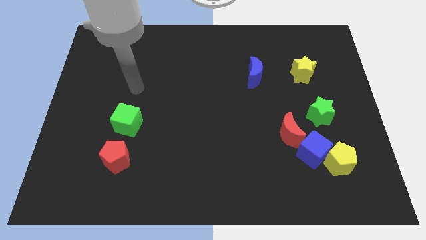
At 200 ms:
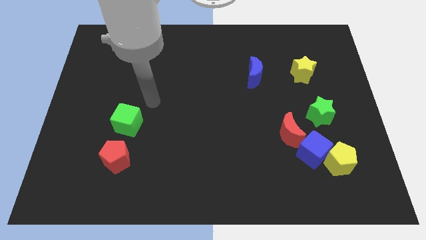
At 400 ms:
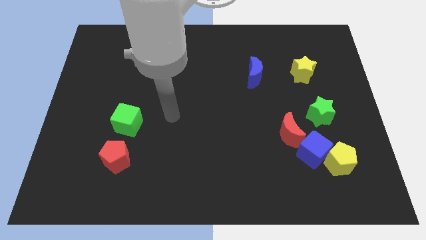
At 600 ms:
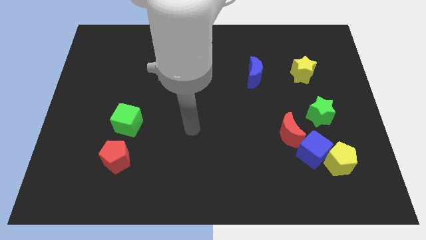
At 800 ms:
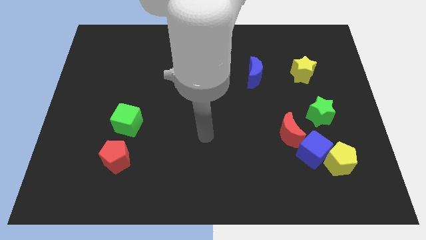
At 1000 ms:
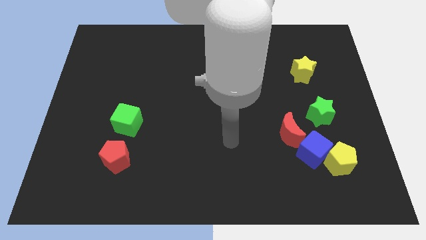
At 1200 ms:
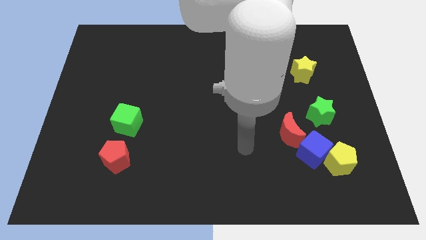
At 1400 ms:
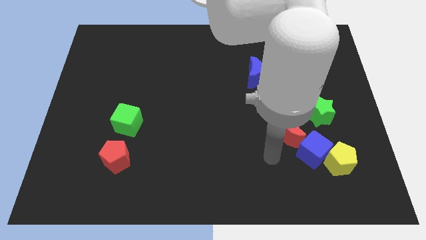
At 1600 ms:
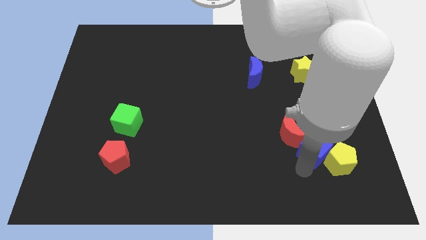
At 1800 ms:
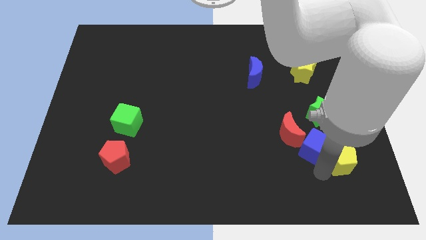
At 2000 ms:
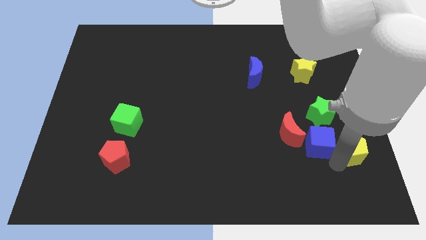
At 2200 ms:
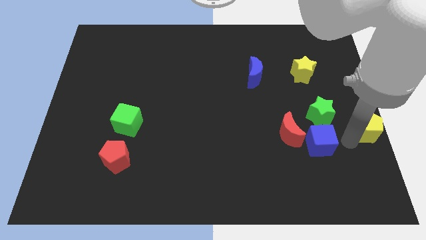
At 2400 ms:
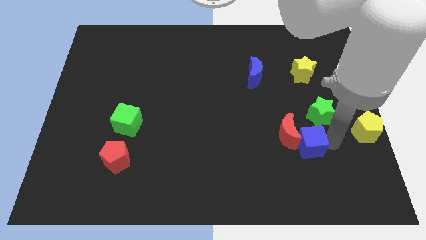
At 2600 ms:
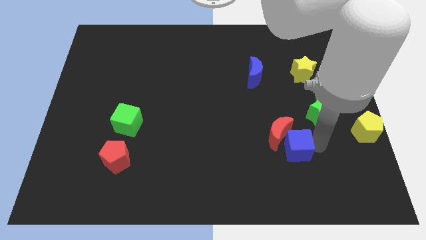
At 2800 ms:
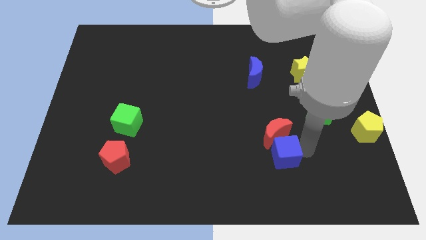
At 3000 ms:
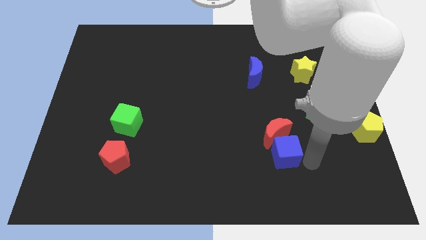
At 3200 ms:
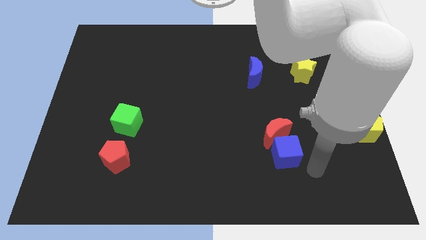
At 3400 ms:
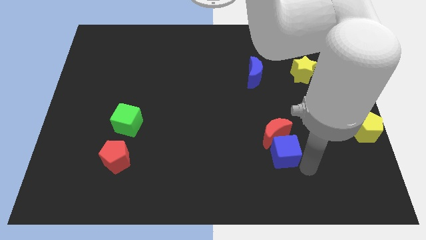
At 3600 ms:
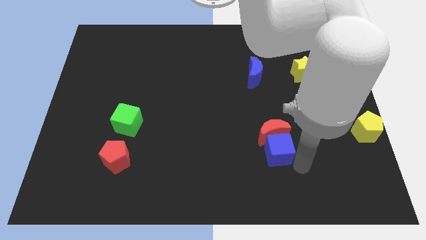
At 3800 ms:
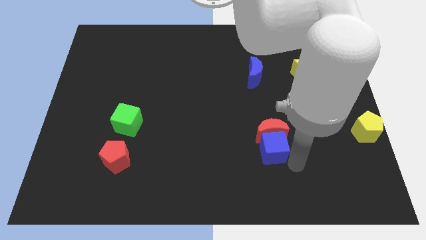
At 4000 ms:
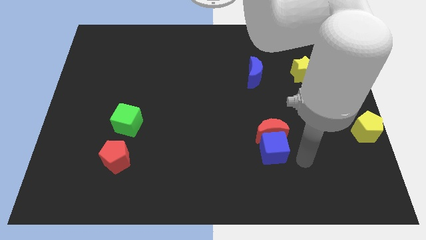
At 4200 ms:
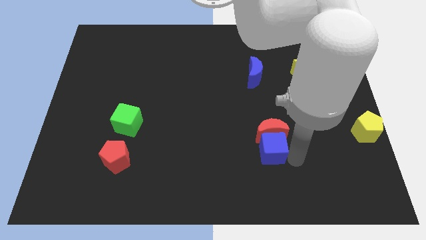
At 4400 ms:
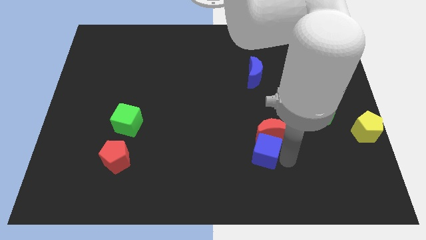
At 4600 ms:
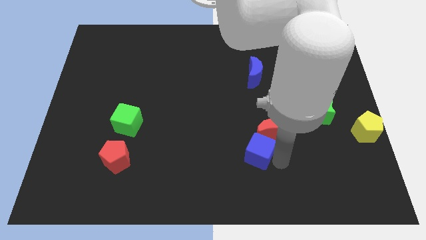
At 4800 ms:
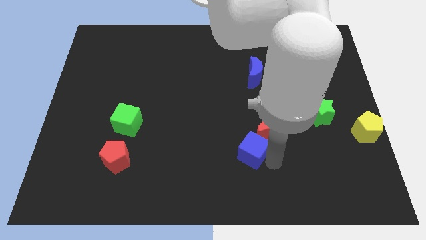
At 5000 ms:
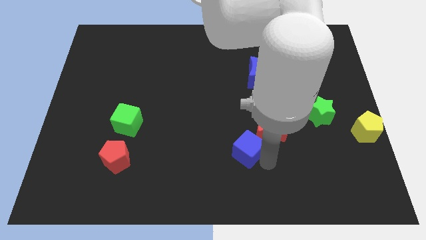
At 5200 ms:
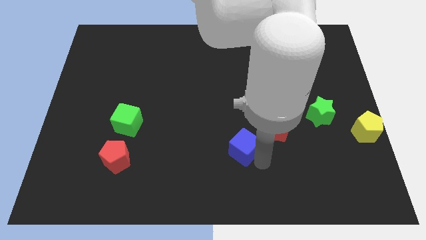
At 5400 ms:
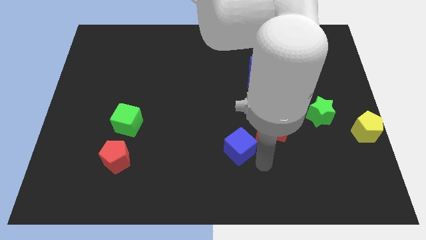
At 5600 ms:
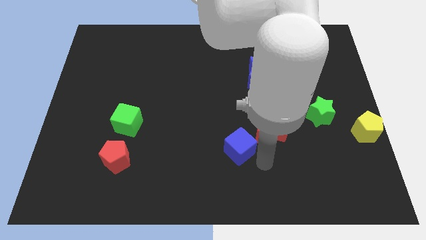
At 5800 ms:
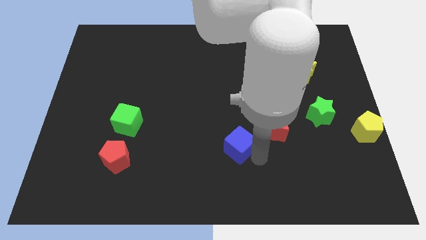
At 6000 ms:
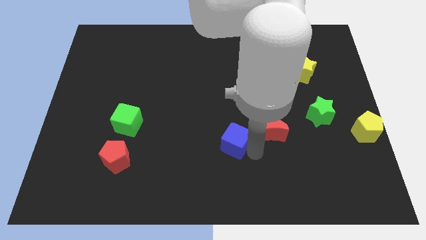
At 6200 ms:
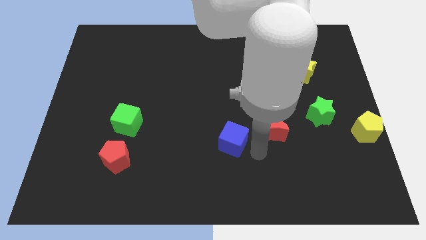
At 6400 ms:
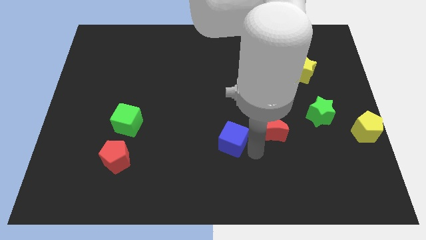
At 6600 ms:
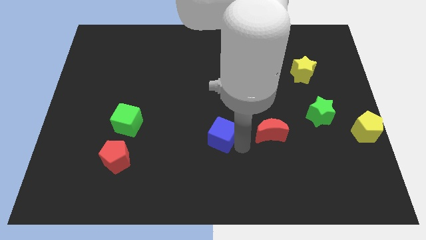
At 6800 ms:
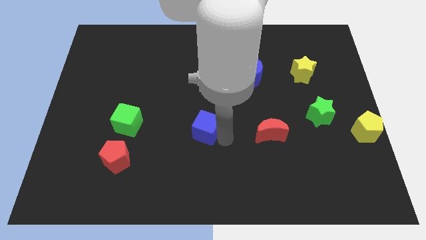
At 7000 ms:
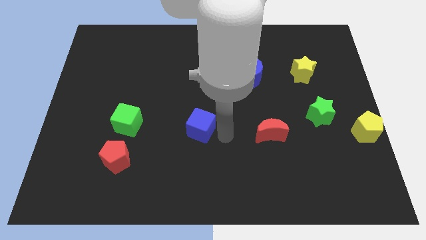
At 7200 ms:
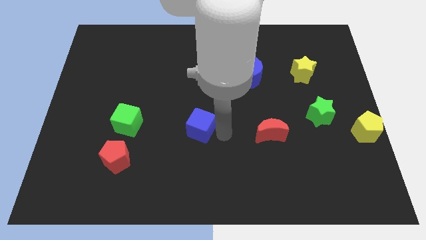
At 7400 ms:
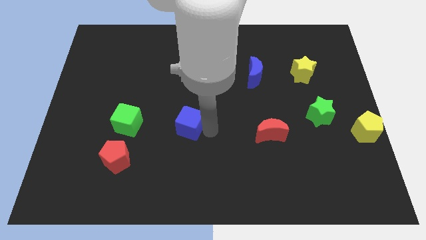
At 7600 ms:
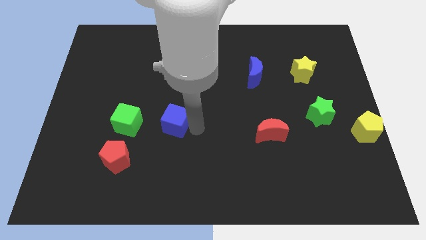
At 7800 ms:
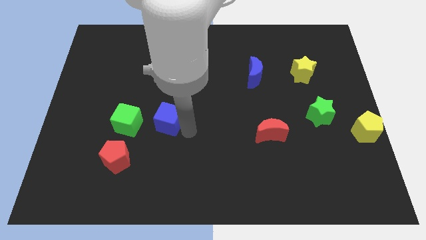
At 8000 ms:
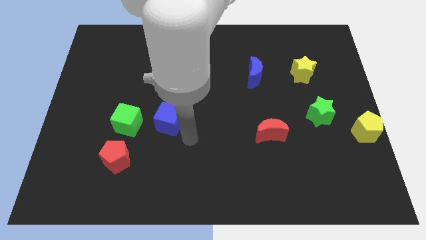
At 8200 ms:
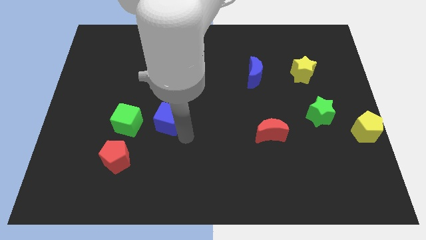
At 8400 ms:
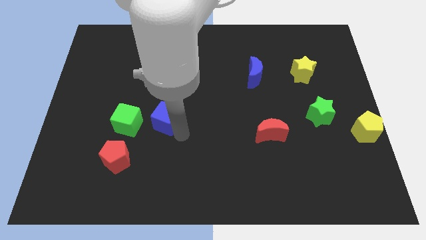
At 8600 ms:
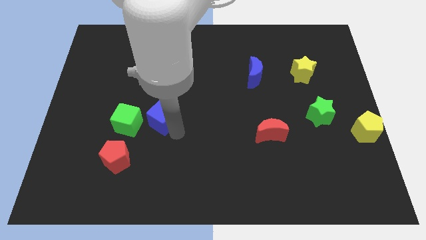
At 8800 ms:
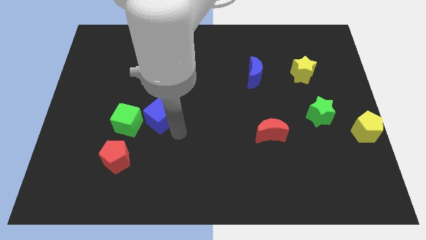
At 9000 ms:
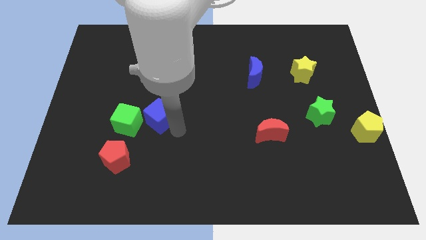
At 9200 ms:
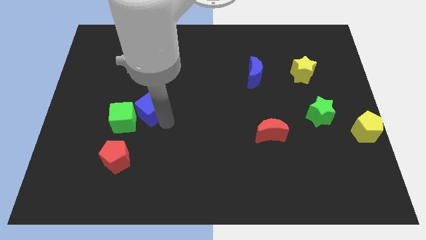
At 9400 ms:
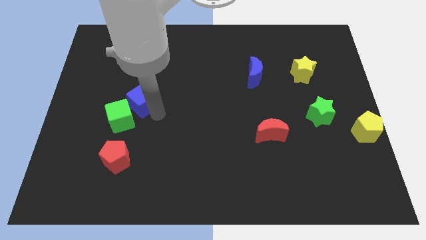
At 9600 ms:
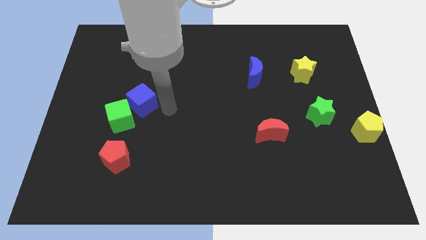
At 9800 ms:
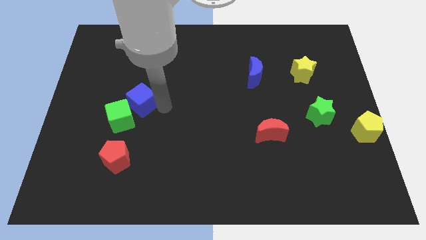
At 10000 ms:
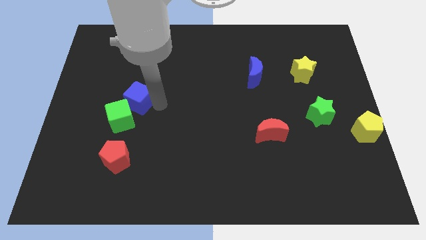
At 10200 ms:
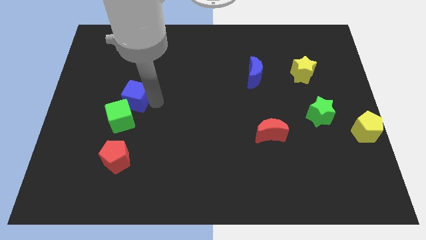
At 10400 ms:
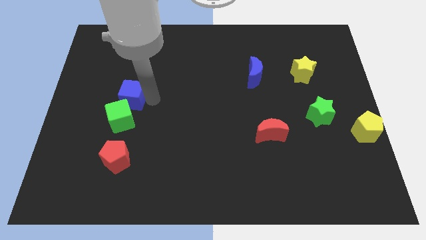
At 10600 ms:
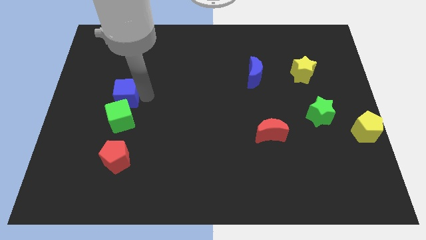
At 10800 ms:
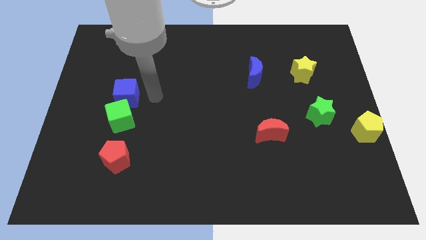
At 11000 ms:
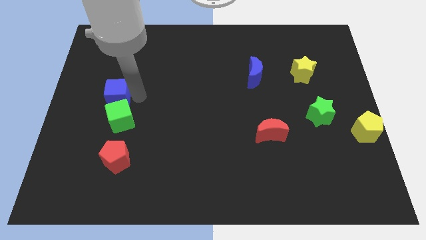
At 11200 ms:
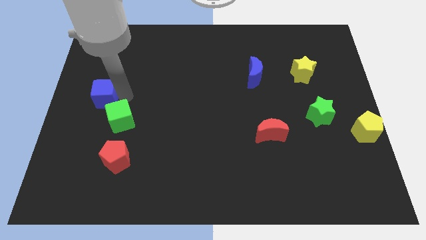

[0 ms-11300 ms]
put the blue cube to the center left

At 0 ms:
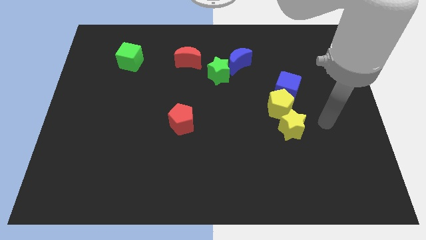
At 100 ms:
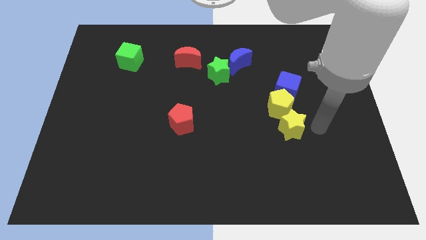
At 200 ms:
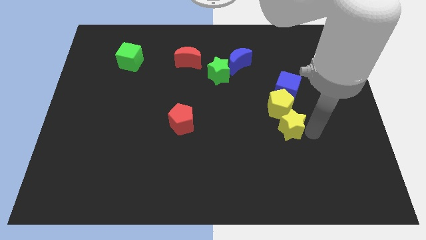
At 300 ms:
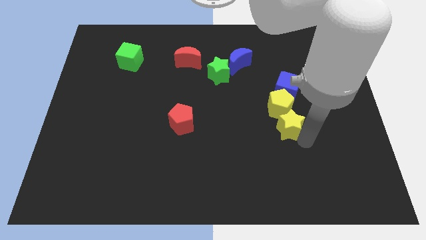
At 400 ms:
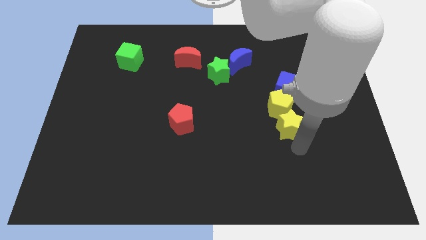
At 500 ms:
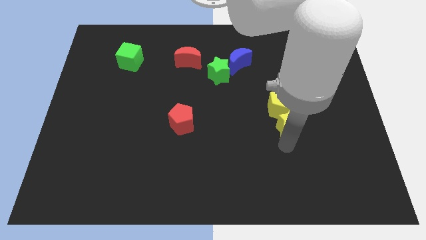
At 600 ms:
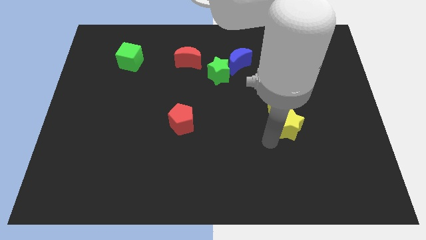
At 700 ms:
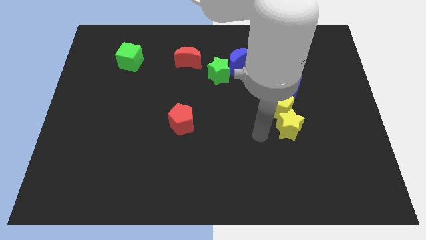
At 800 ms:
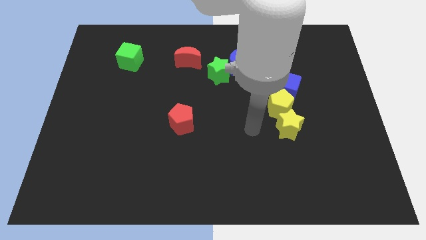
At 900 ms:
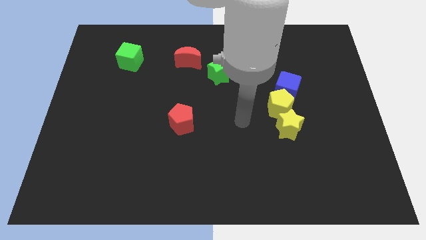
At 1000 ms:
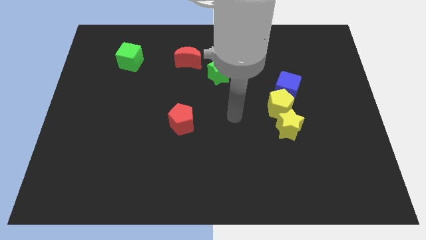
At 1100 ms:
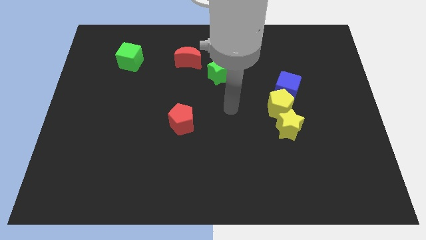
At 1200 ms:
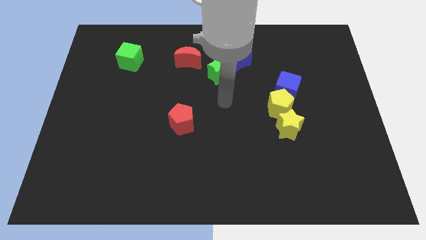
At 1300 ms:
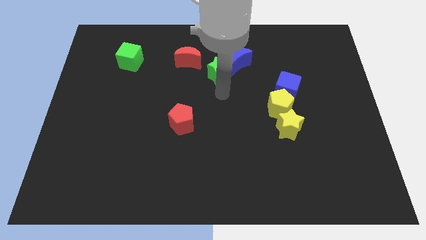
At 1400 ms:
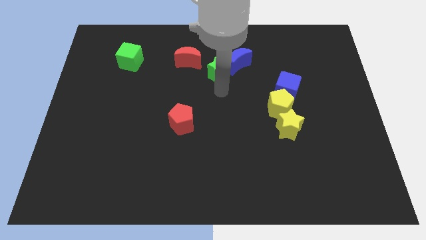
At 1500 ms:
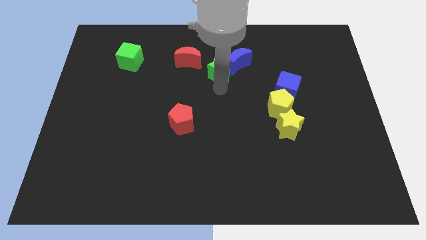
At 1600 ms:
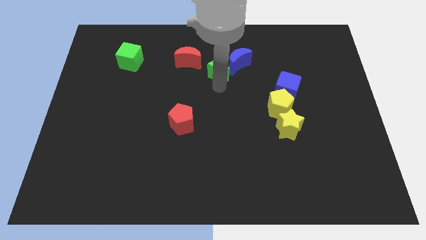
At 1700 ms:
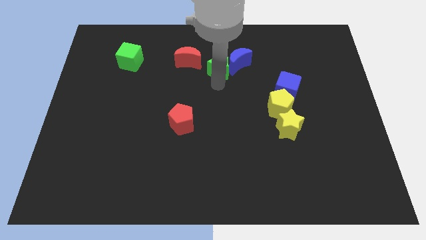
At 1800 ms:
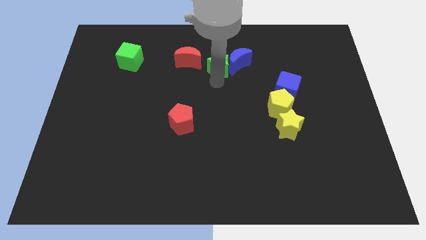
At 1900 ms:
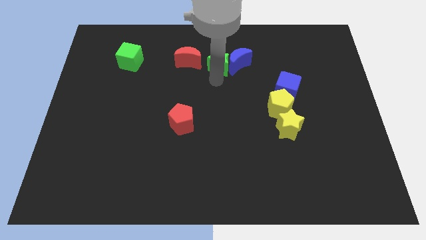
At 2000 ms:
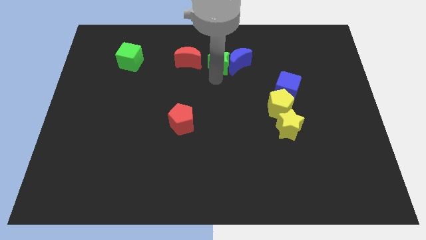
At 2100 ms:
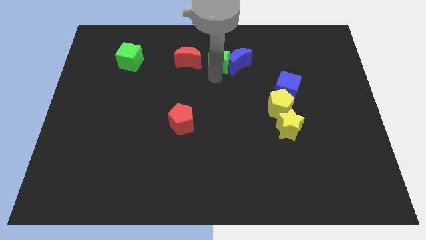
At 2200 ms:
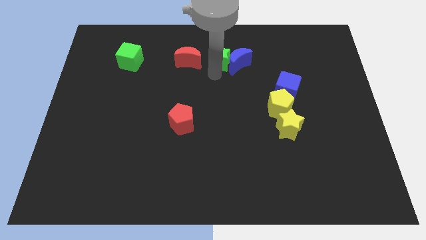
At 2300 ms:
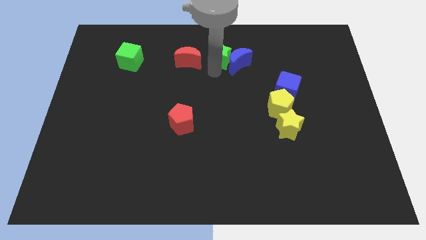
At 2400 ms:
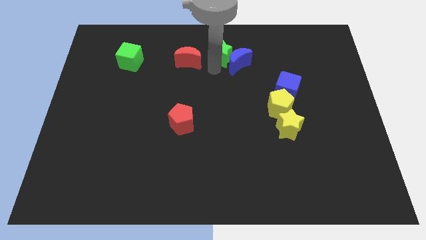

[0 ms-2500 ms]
move the green star to the towards your base
